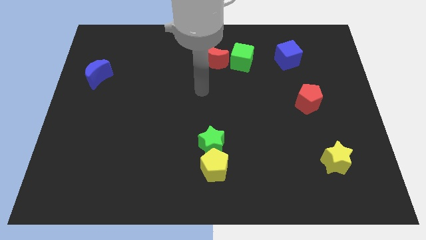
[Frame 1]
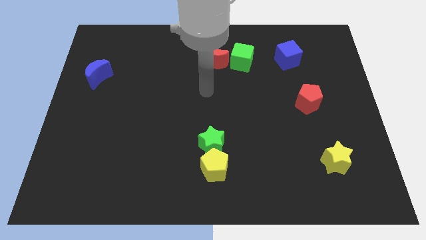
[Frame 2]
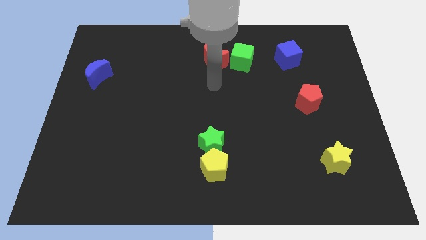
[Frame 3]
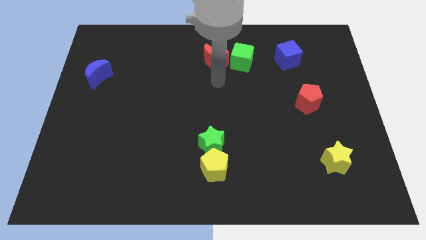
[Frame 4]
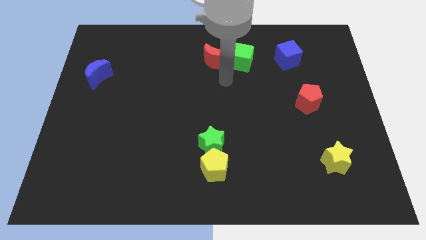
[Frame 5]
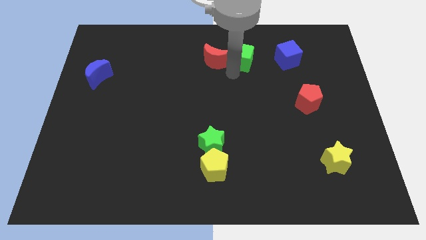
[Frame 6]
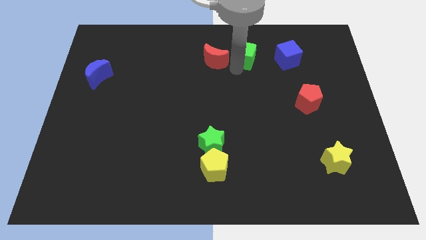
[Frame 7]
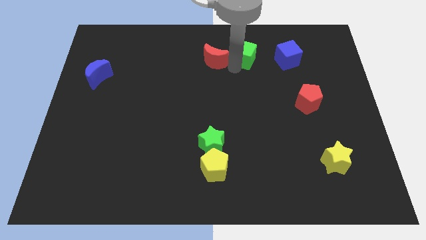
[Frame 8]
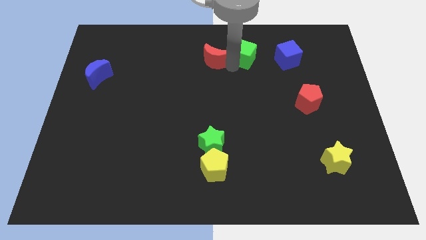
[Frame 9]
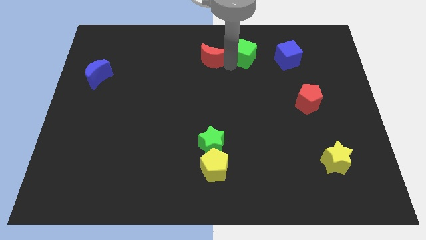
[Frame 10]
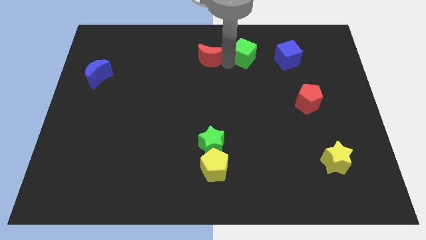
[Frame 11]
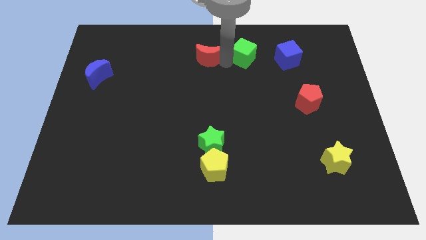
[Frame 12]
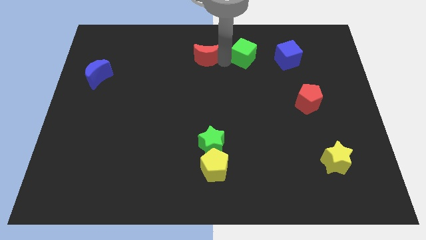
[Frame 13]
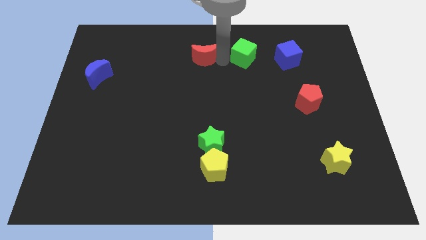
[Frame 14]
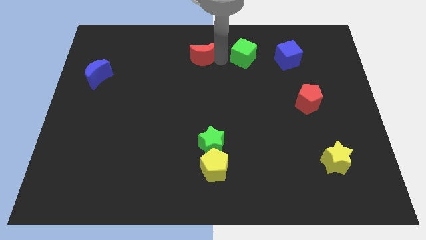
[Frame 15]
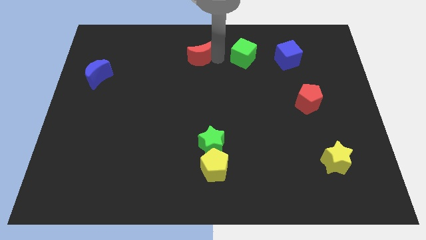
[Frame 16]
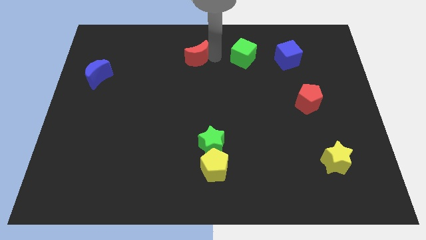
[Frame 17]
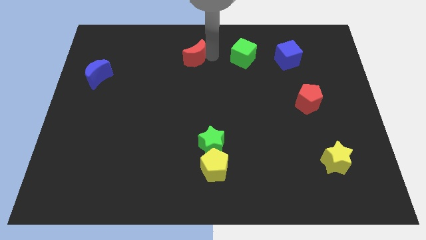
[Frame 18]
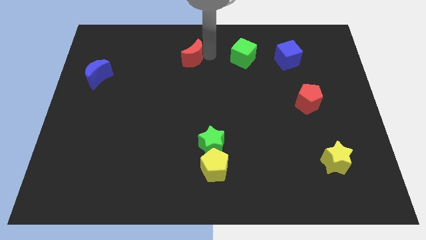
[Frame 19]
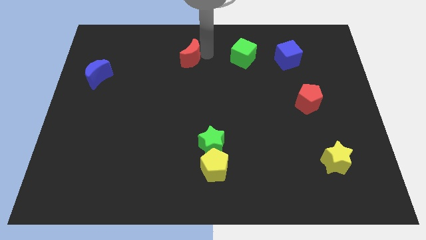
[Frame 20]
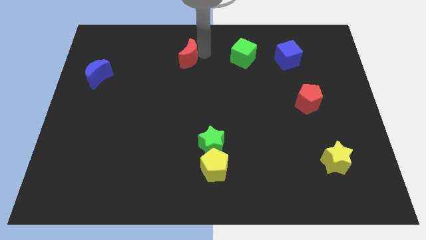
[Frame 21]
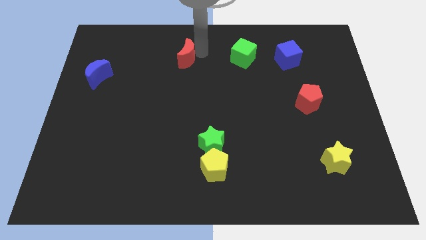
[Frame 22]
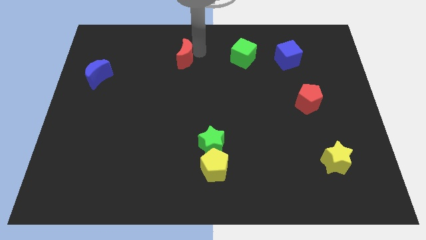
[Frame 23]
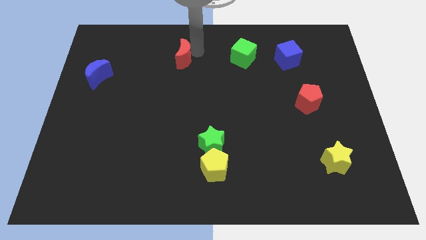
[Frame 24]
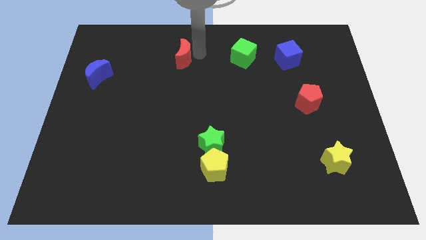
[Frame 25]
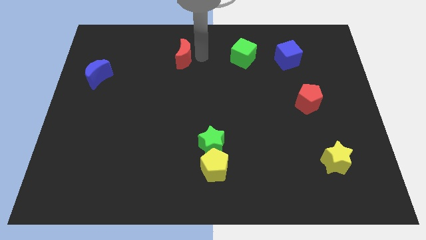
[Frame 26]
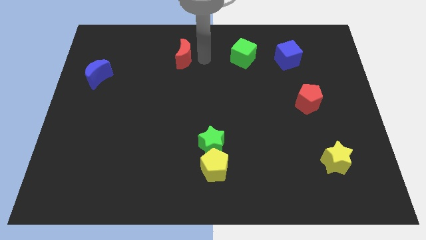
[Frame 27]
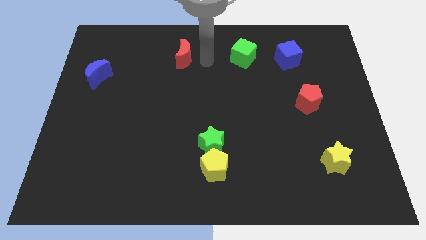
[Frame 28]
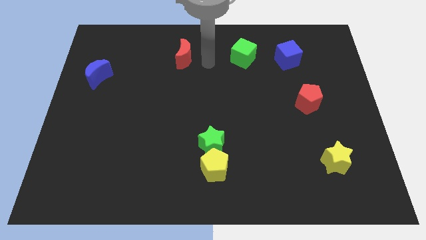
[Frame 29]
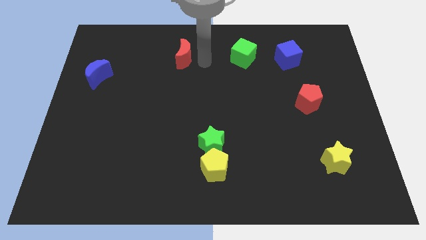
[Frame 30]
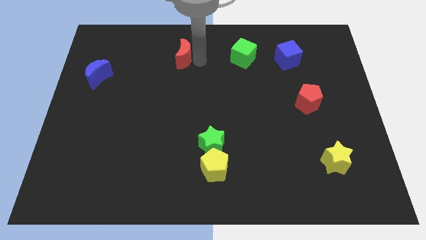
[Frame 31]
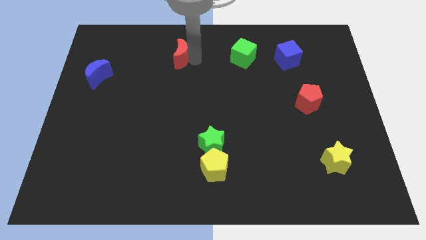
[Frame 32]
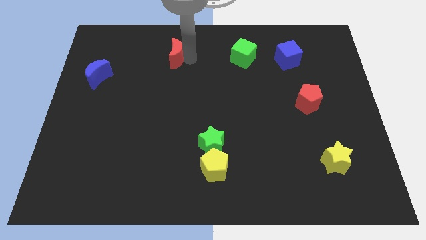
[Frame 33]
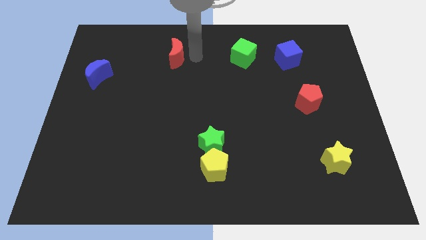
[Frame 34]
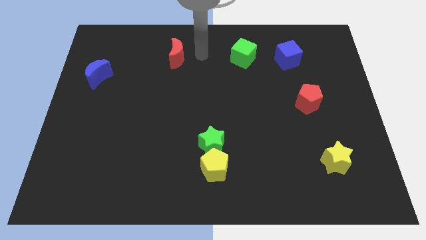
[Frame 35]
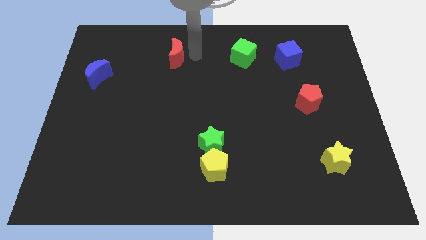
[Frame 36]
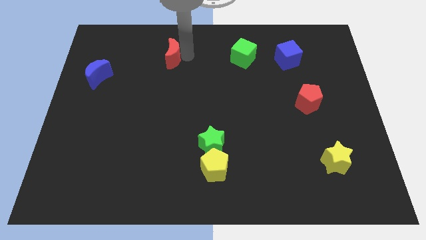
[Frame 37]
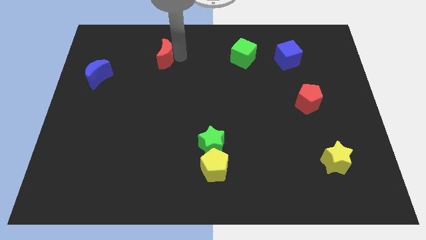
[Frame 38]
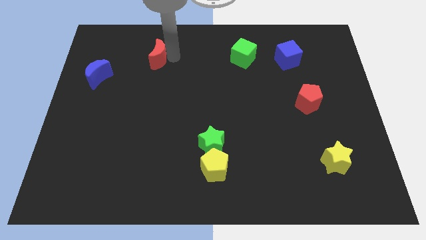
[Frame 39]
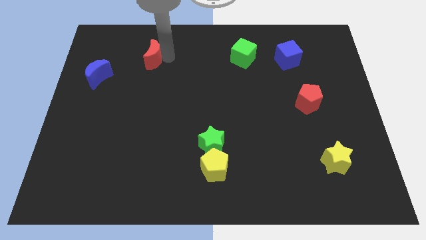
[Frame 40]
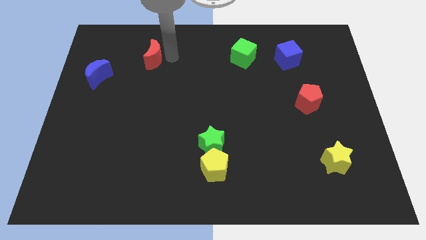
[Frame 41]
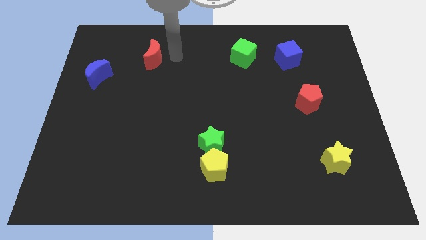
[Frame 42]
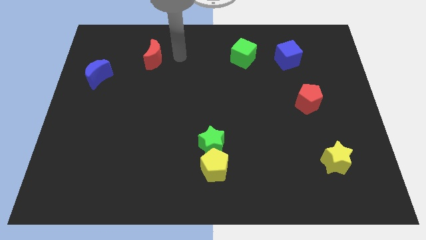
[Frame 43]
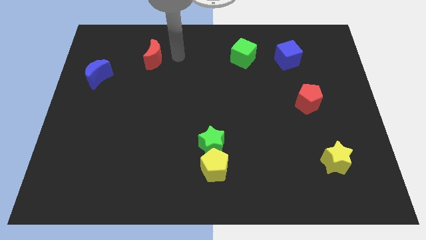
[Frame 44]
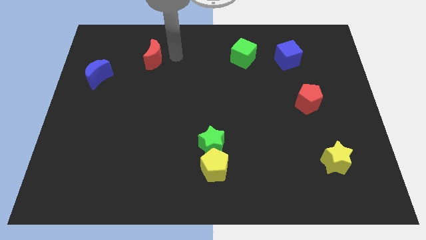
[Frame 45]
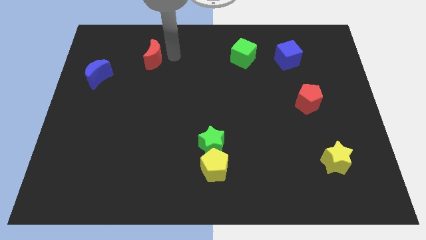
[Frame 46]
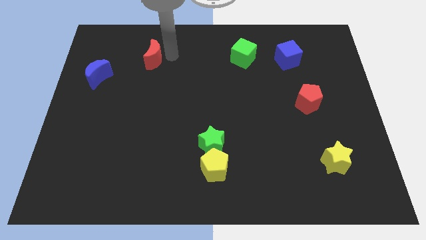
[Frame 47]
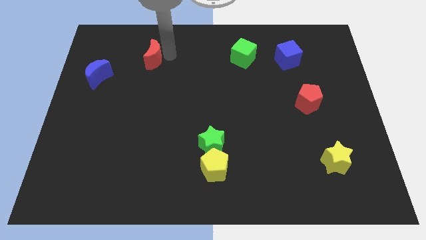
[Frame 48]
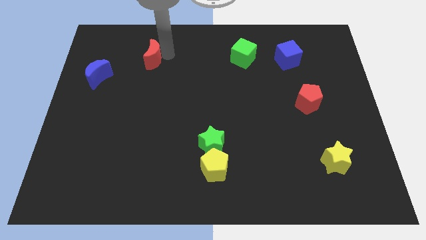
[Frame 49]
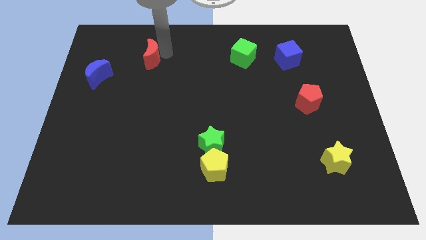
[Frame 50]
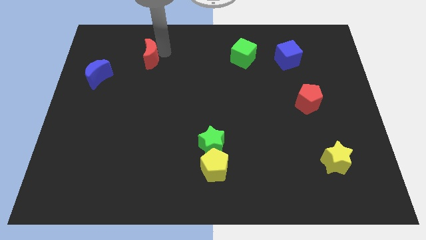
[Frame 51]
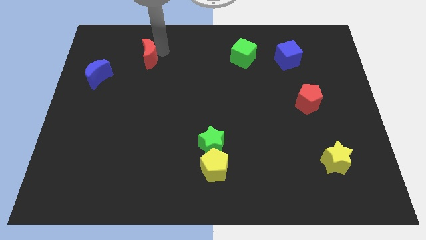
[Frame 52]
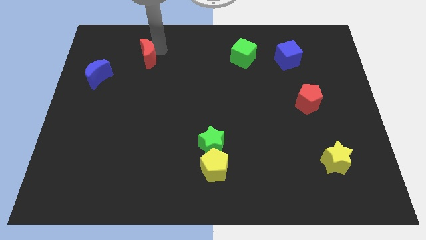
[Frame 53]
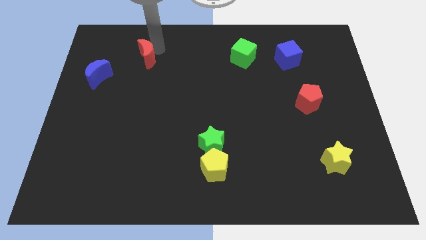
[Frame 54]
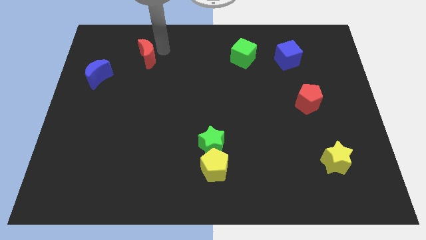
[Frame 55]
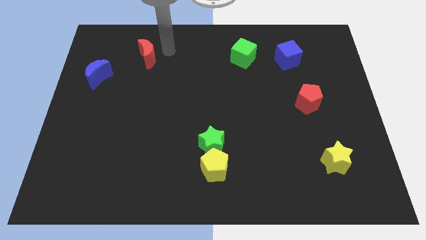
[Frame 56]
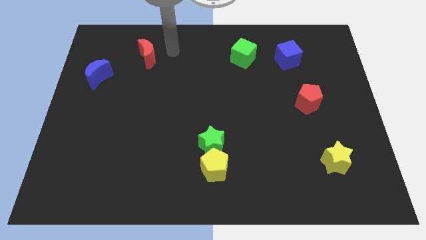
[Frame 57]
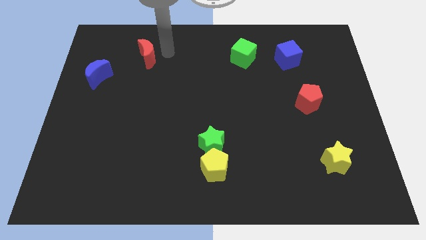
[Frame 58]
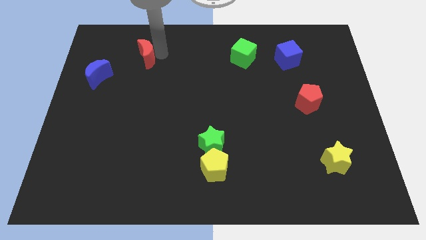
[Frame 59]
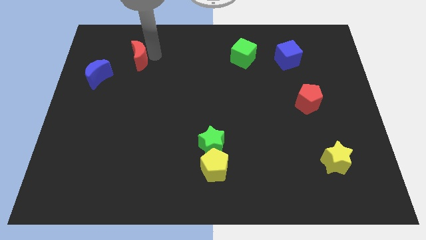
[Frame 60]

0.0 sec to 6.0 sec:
push the red moon to the top right of the blue moon
